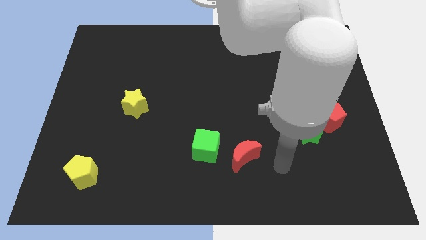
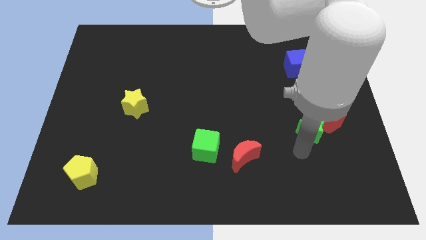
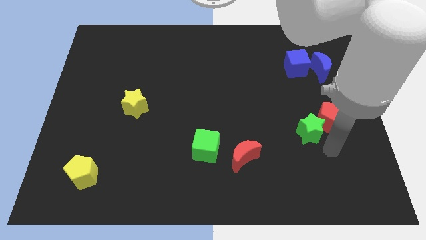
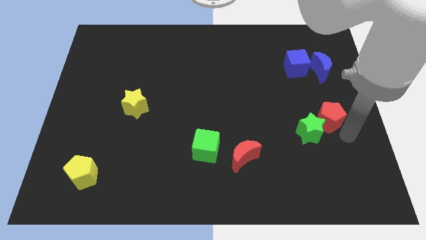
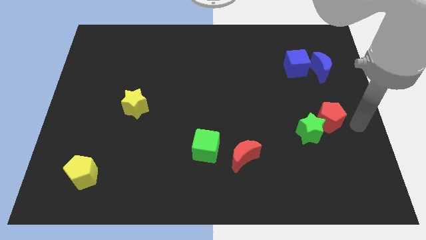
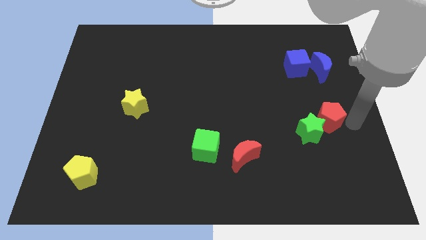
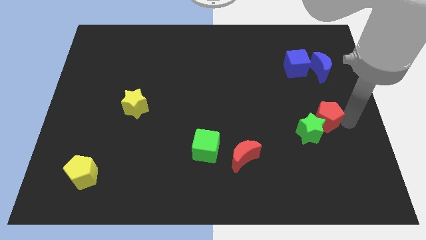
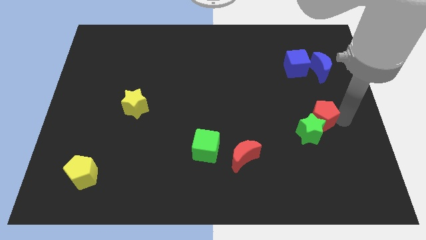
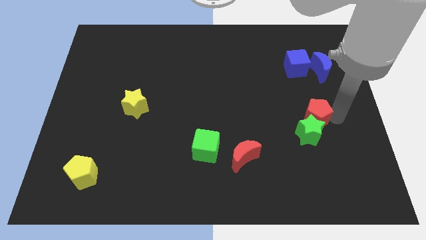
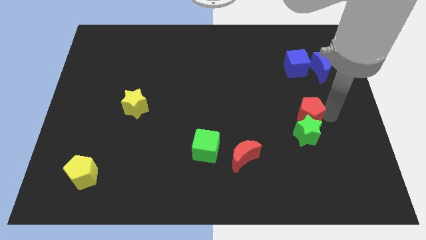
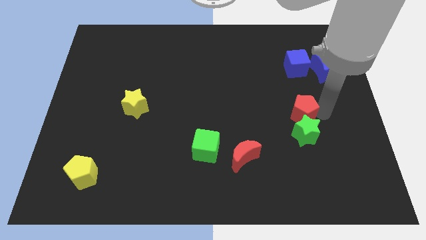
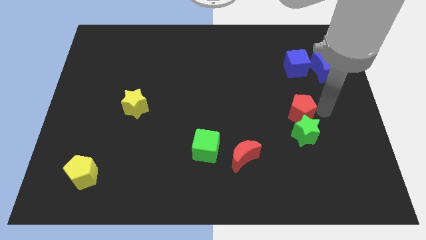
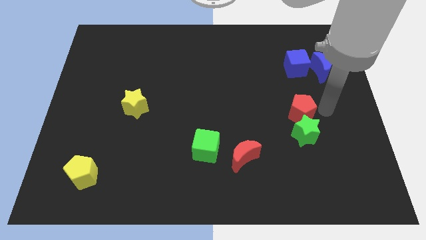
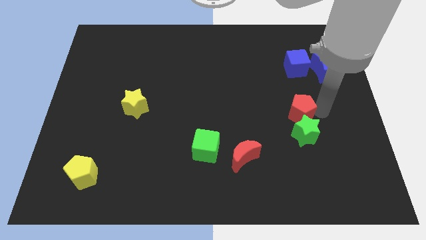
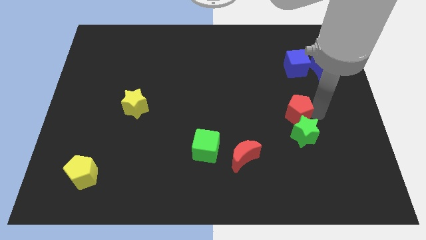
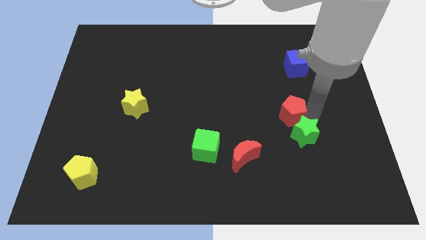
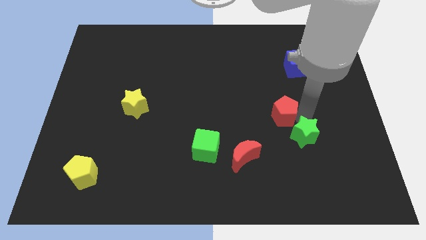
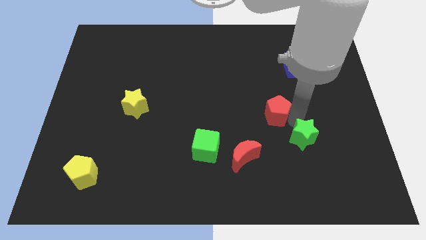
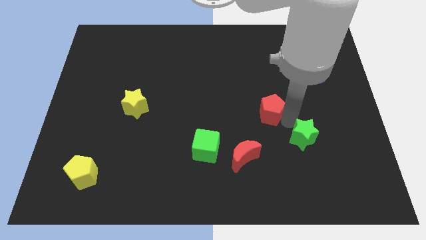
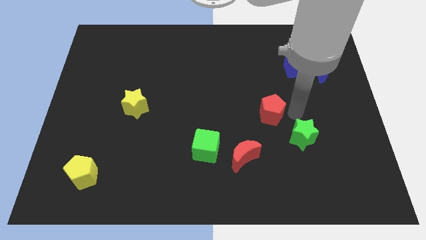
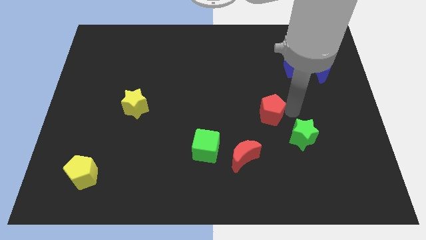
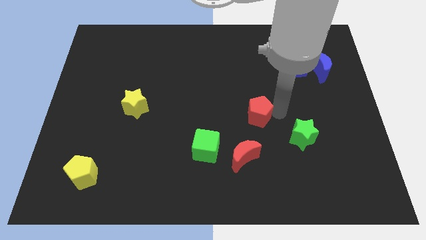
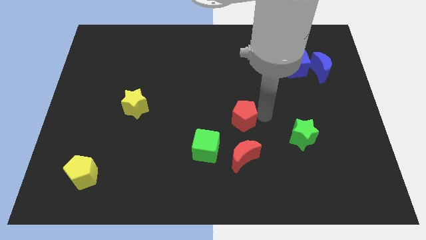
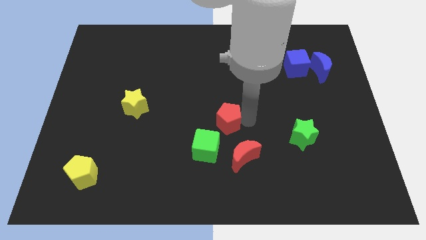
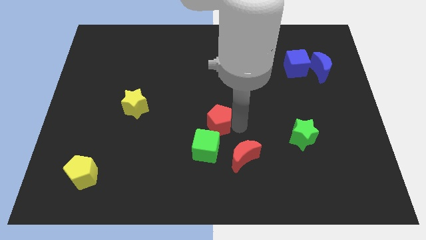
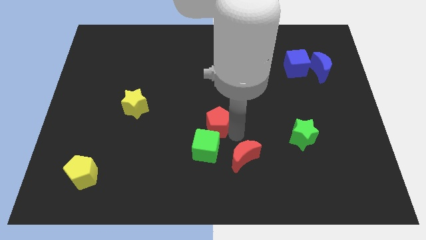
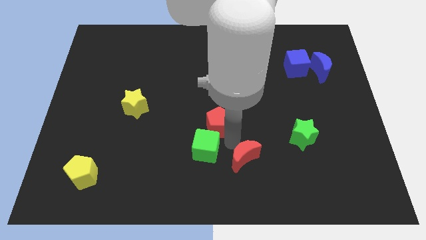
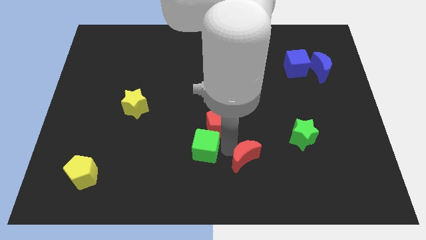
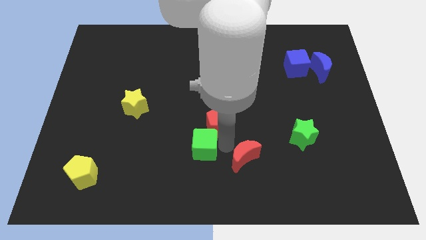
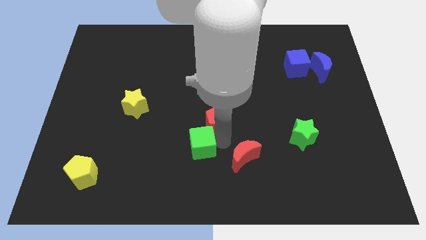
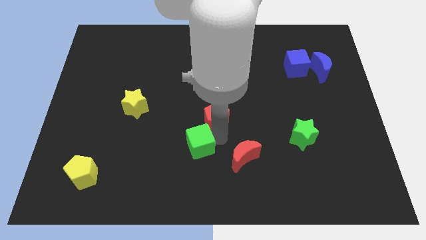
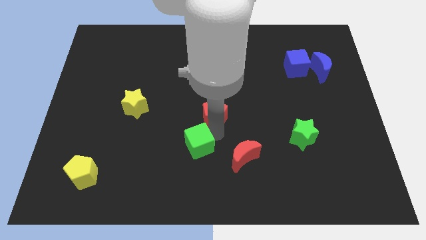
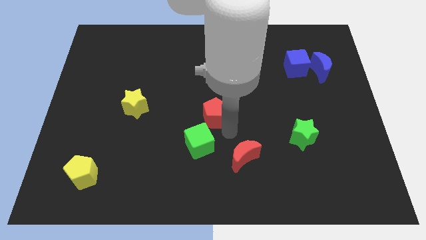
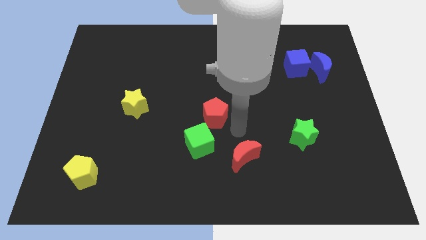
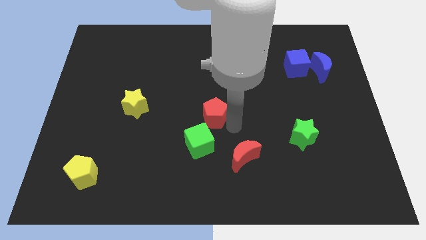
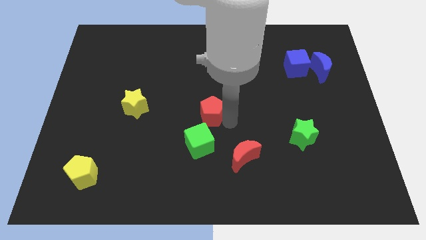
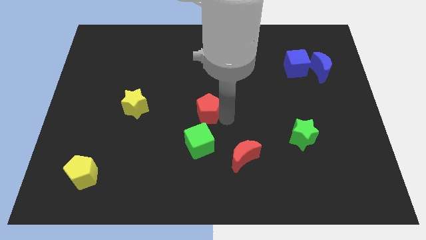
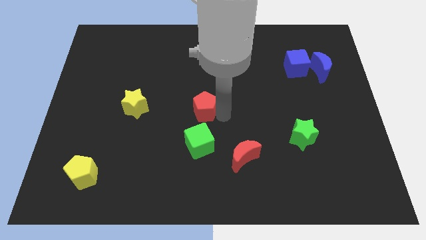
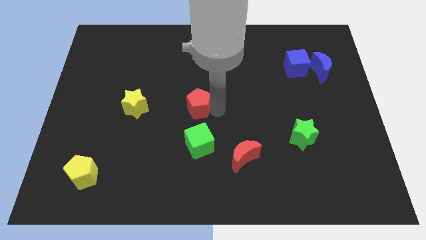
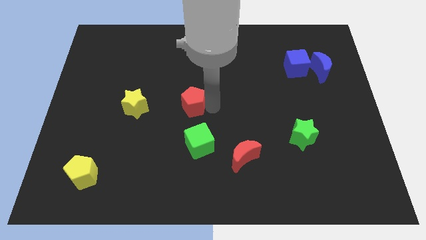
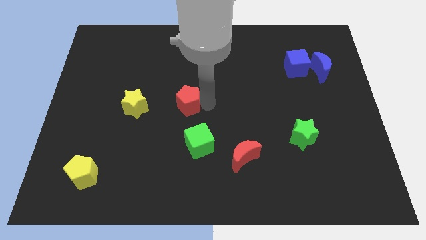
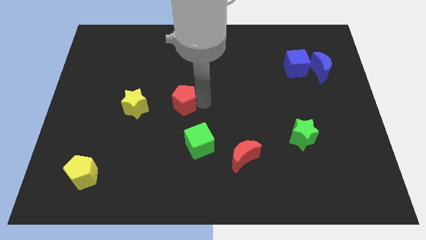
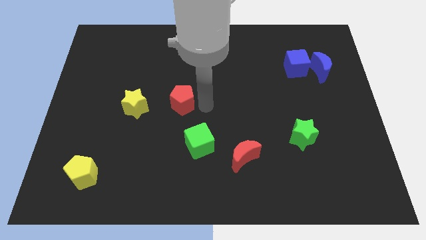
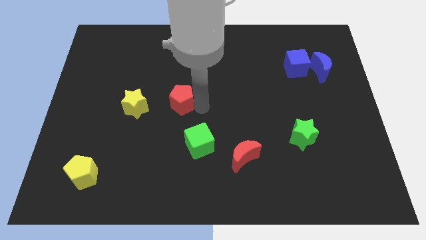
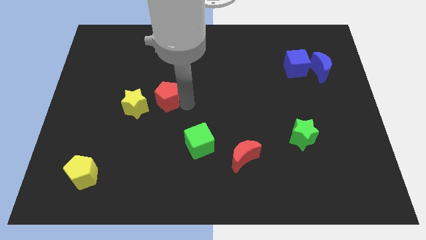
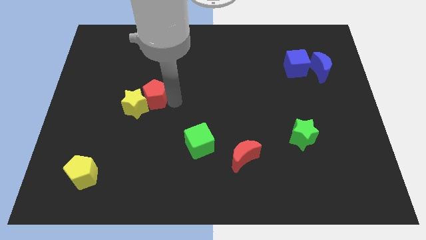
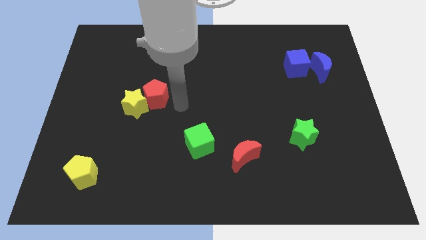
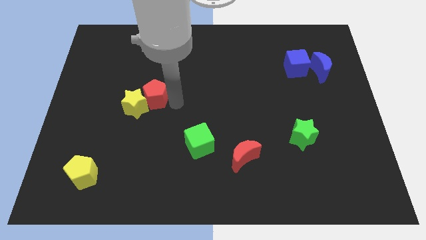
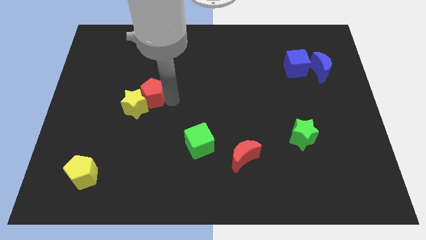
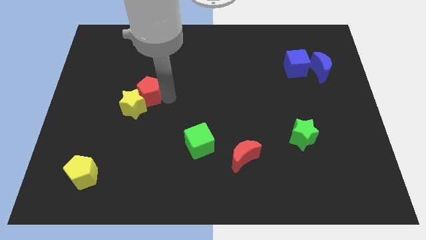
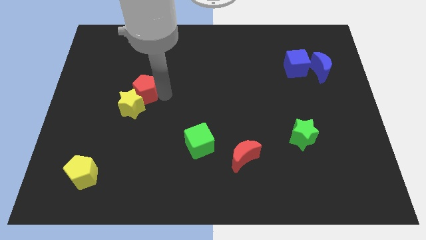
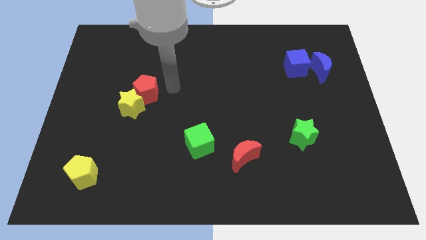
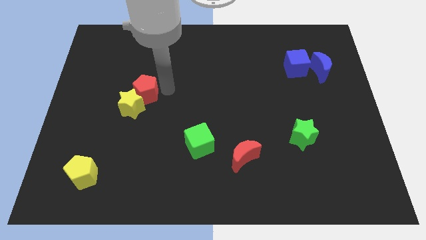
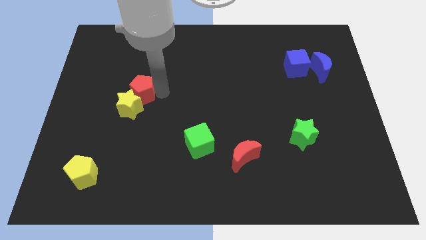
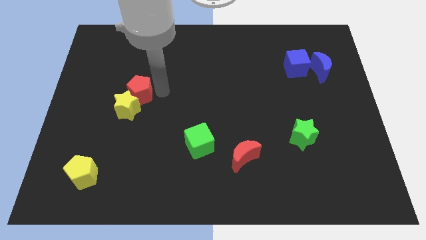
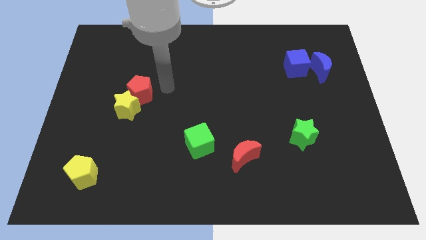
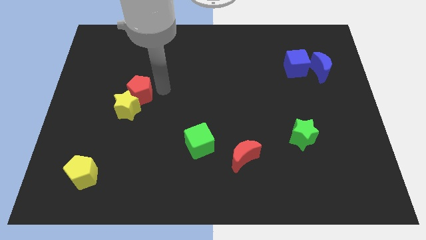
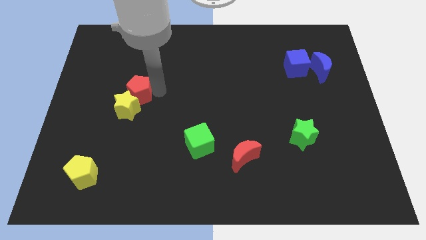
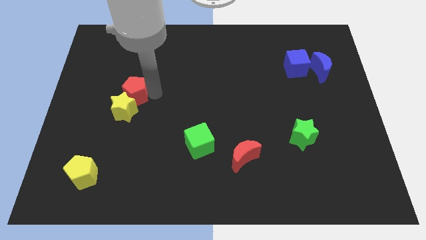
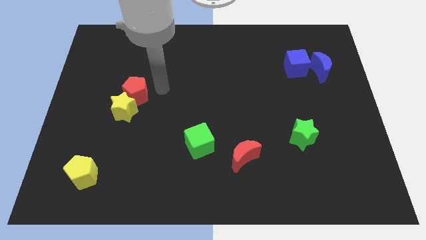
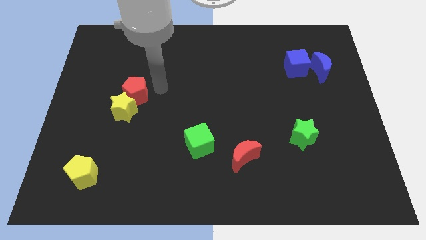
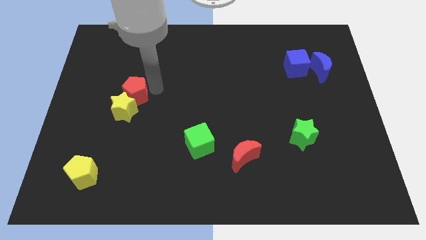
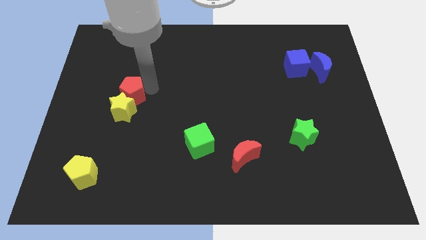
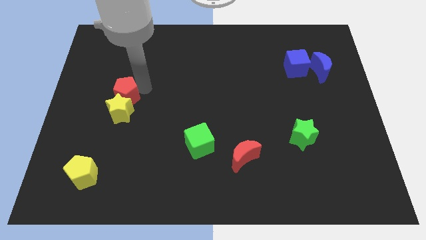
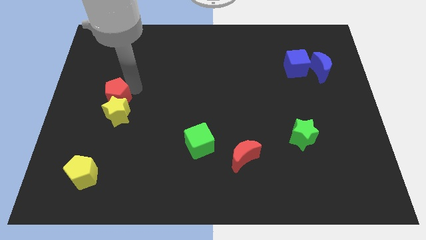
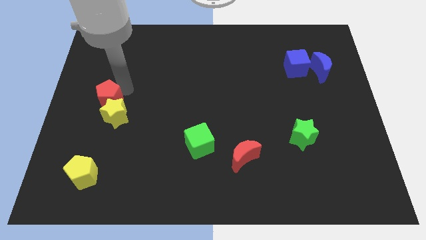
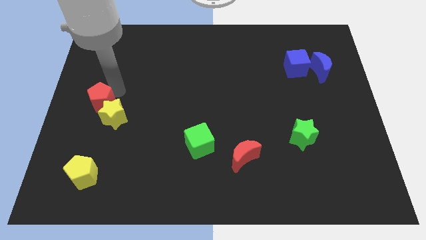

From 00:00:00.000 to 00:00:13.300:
move the red pentagon just left of the yellow star
